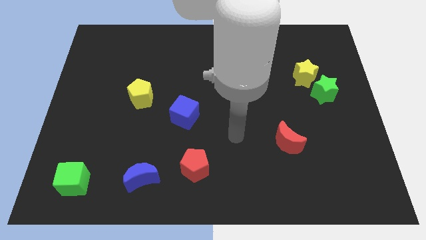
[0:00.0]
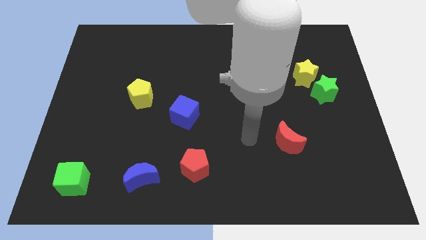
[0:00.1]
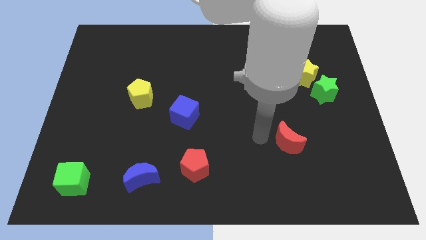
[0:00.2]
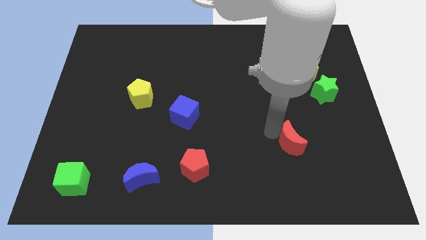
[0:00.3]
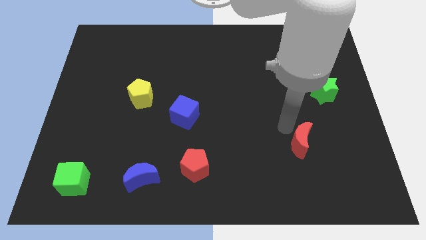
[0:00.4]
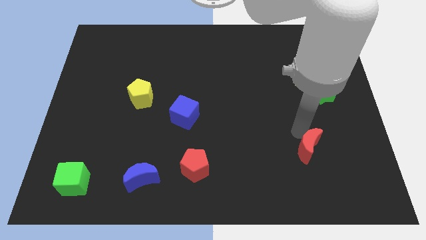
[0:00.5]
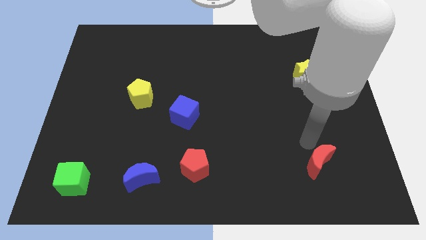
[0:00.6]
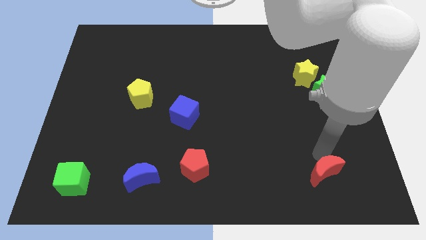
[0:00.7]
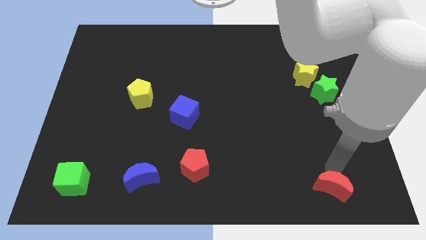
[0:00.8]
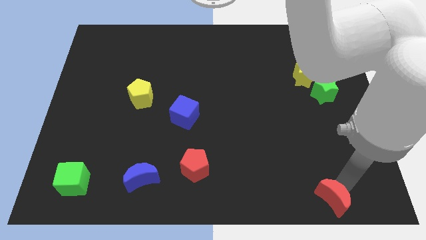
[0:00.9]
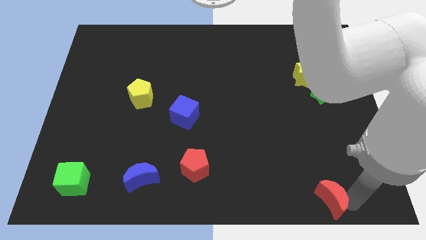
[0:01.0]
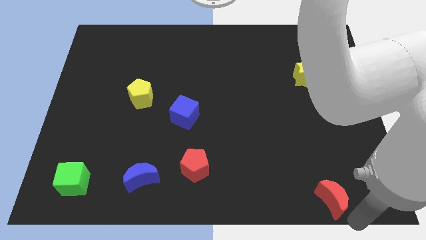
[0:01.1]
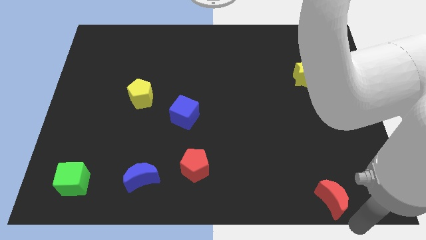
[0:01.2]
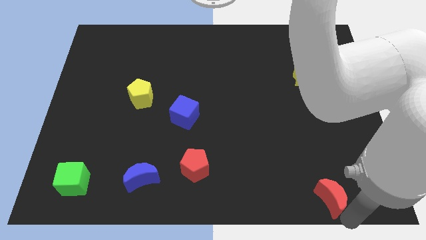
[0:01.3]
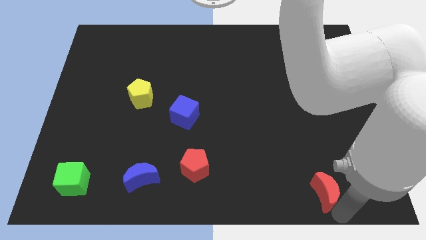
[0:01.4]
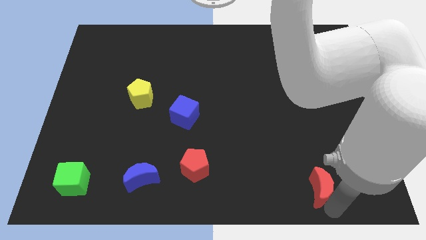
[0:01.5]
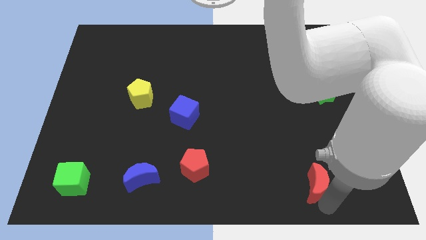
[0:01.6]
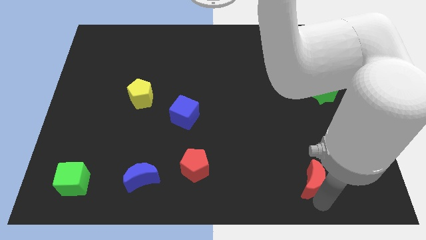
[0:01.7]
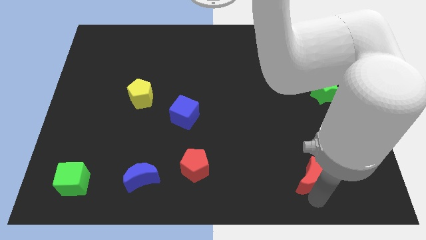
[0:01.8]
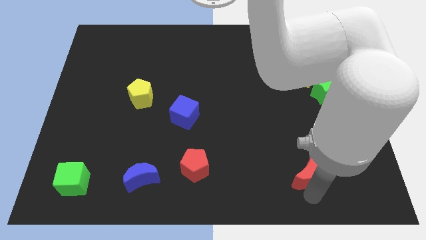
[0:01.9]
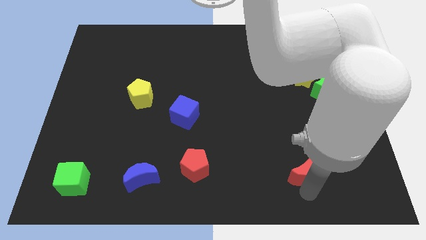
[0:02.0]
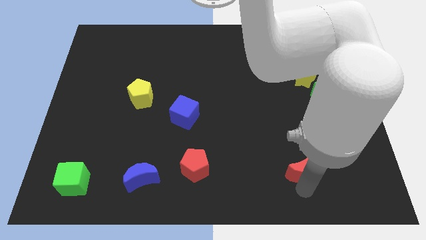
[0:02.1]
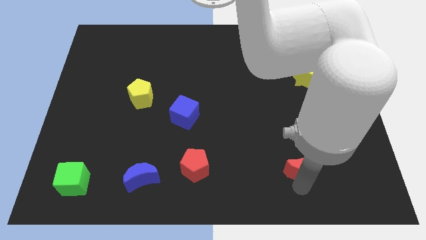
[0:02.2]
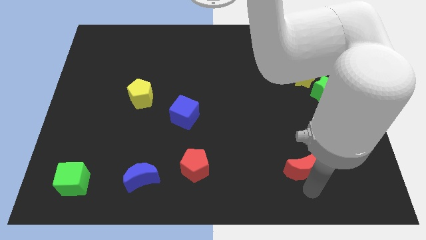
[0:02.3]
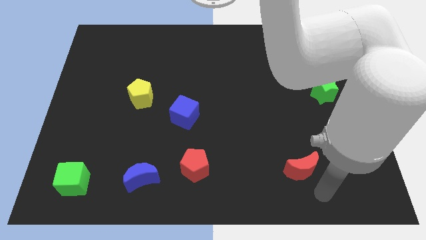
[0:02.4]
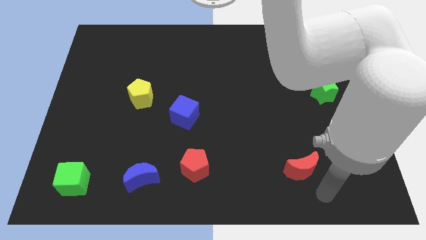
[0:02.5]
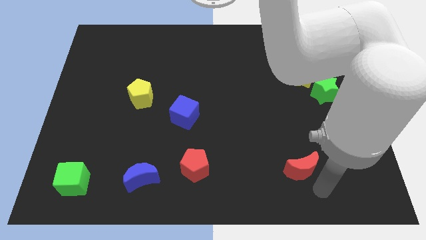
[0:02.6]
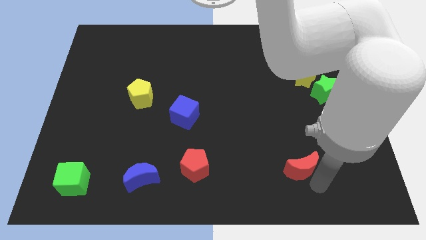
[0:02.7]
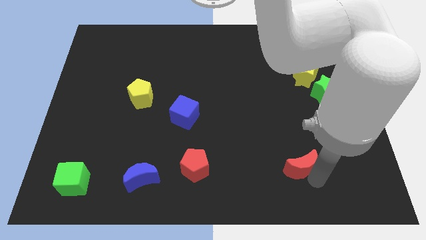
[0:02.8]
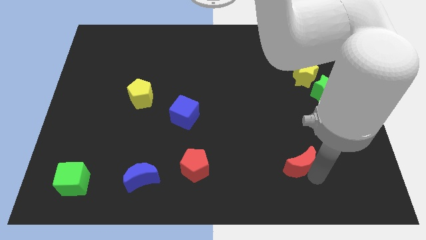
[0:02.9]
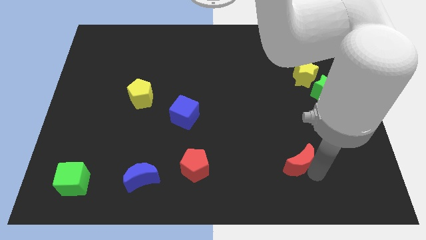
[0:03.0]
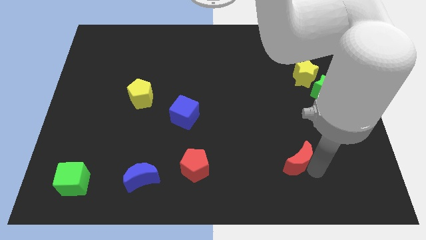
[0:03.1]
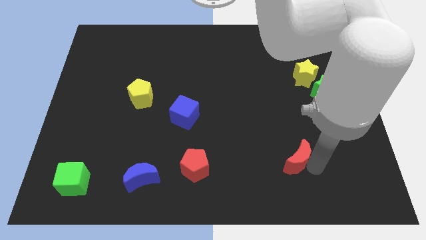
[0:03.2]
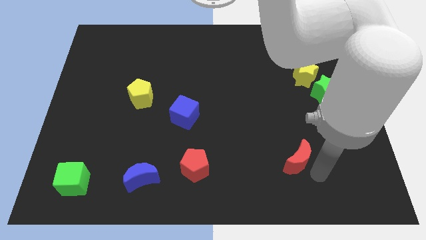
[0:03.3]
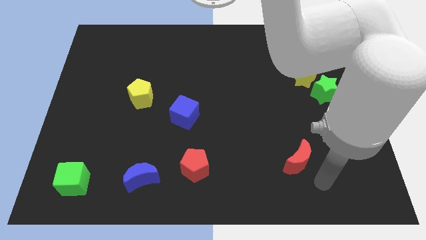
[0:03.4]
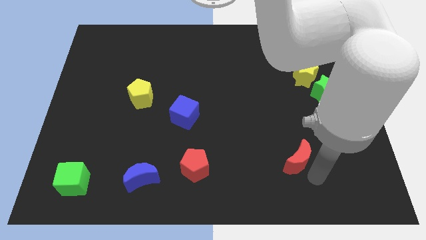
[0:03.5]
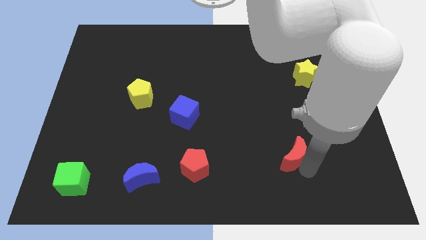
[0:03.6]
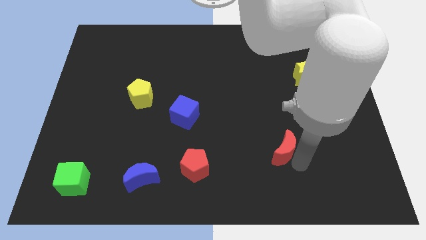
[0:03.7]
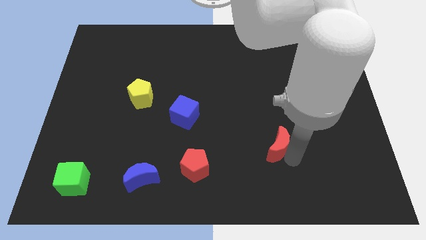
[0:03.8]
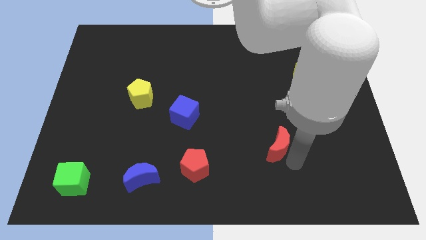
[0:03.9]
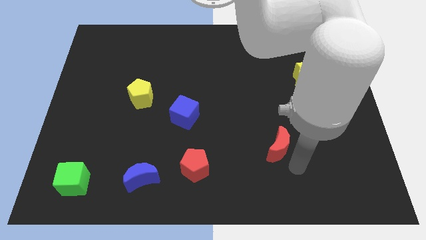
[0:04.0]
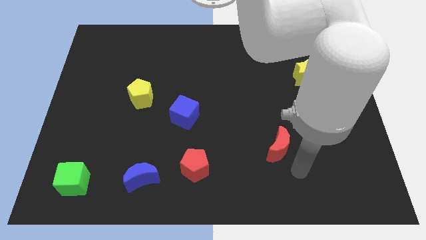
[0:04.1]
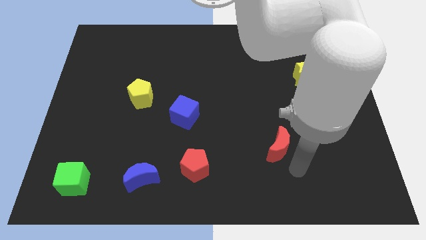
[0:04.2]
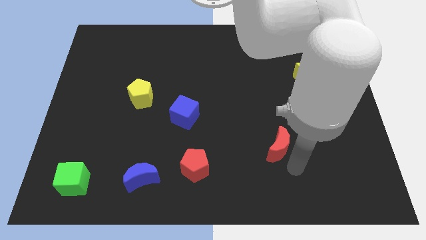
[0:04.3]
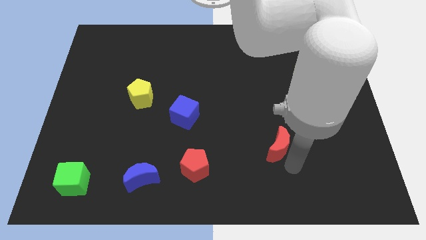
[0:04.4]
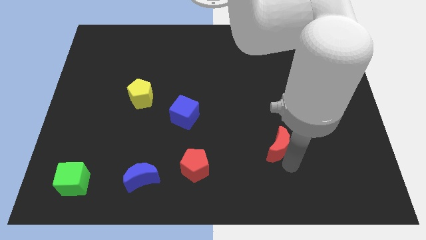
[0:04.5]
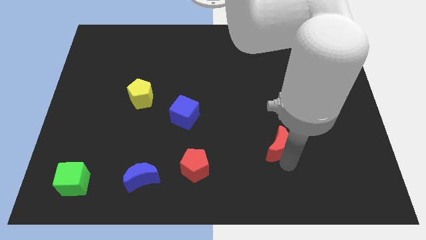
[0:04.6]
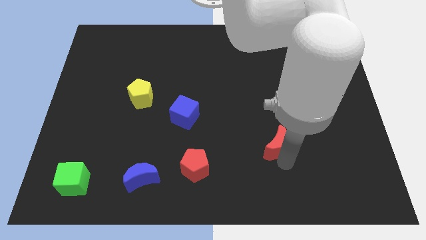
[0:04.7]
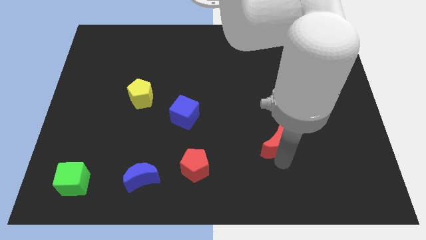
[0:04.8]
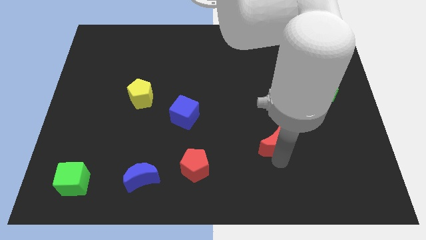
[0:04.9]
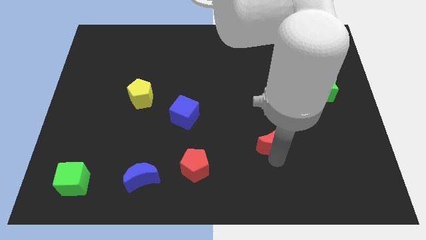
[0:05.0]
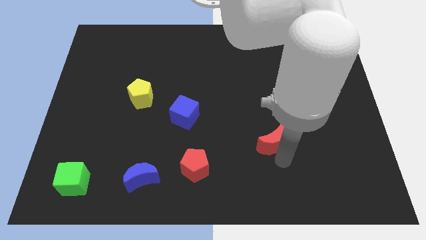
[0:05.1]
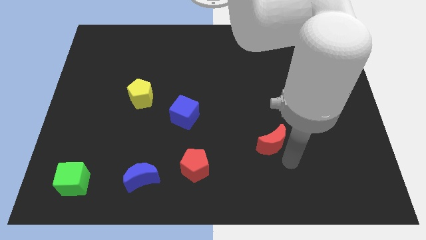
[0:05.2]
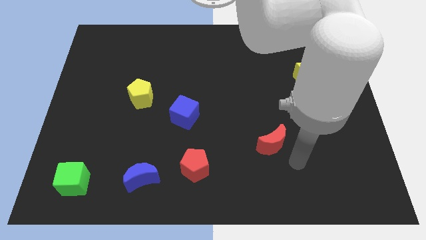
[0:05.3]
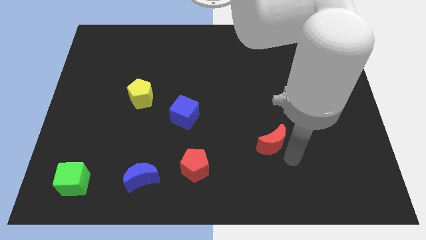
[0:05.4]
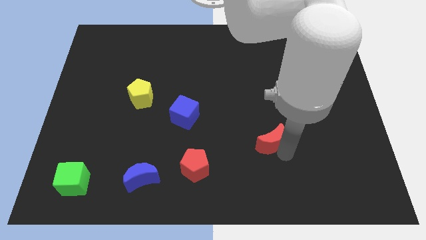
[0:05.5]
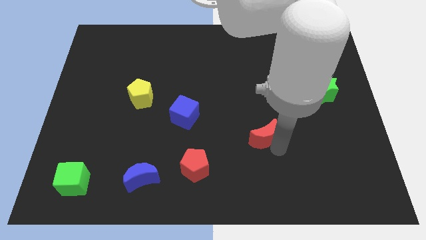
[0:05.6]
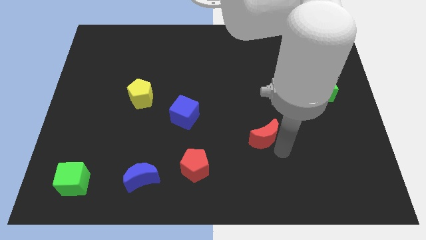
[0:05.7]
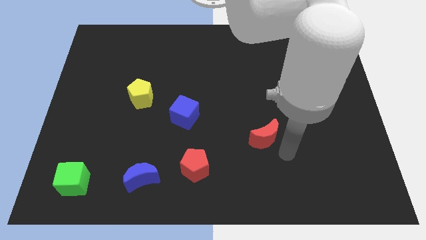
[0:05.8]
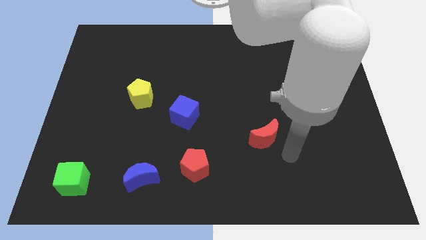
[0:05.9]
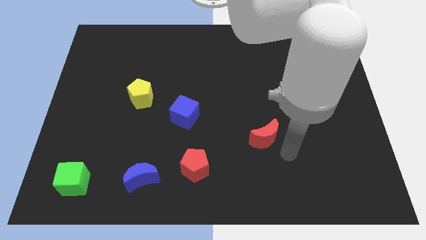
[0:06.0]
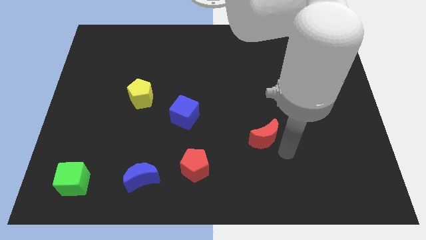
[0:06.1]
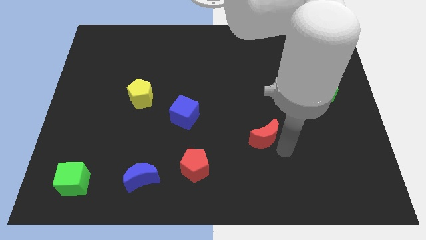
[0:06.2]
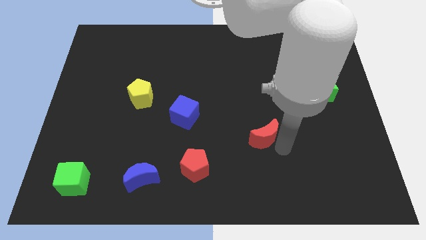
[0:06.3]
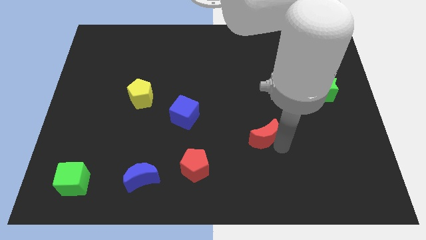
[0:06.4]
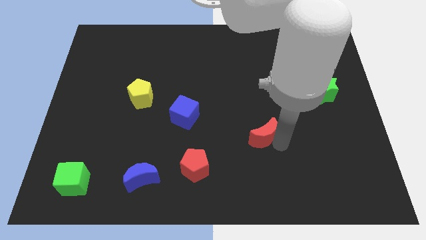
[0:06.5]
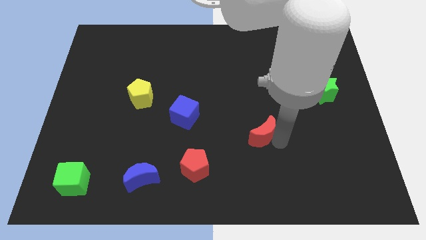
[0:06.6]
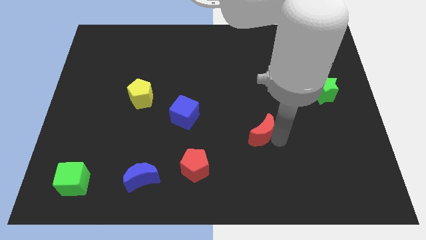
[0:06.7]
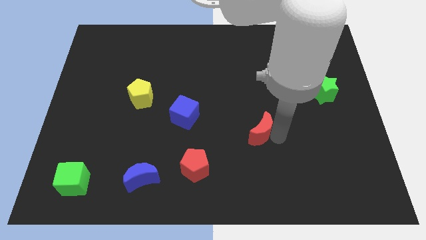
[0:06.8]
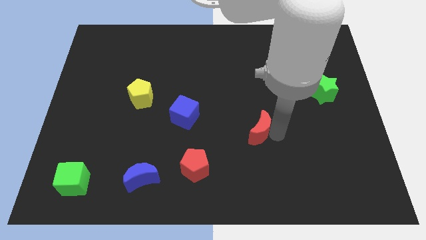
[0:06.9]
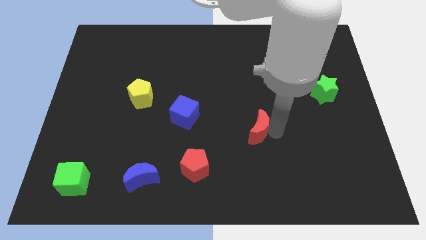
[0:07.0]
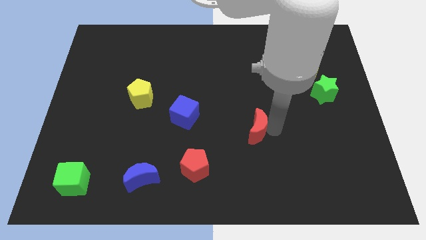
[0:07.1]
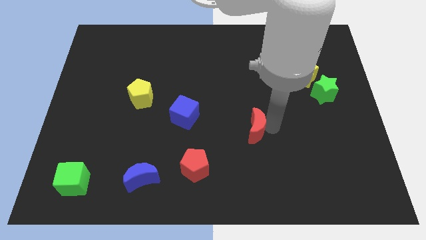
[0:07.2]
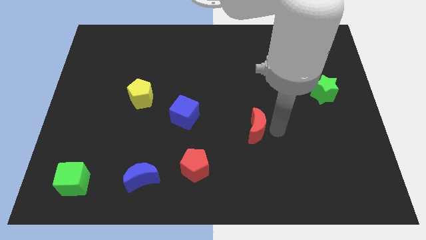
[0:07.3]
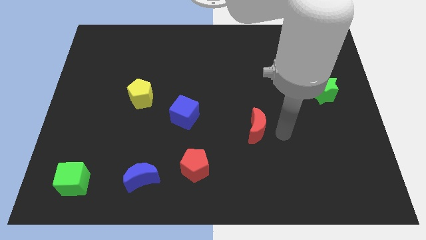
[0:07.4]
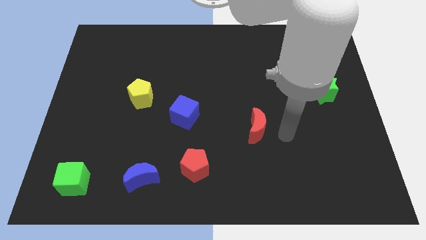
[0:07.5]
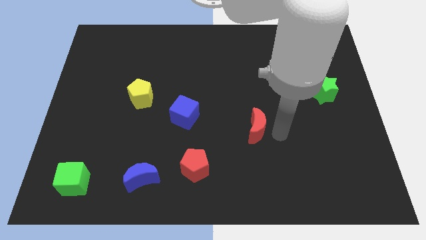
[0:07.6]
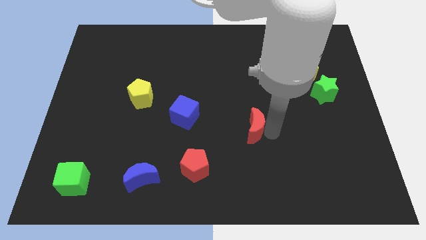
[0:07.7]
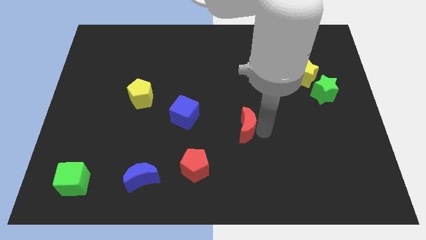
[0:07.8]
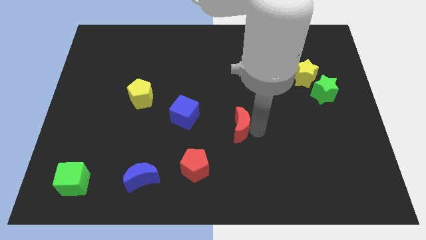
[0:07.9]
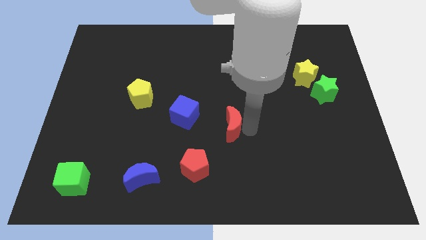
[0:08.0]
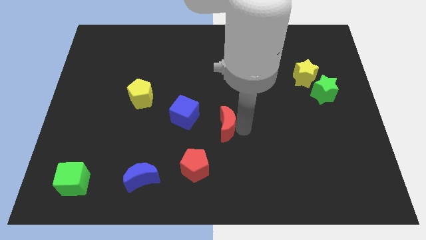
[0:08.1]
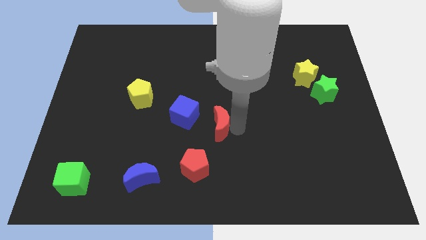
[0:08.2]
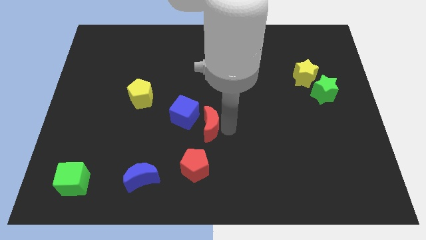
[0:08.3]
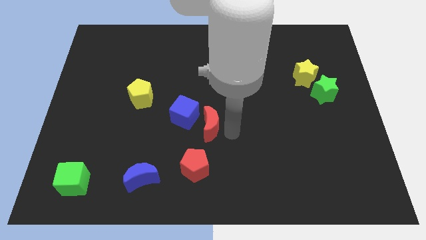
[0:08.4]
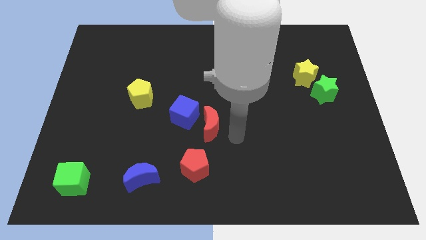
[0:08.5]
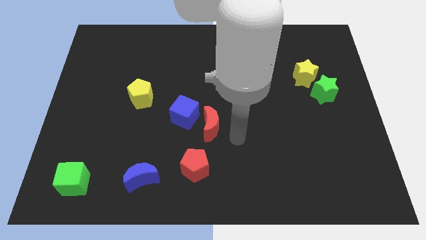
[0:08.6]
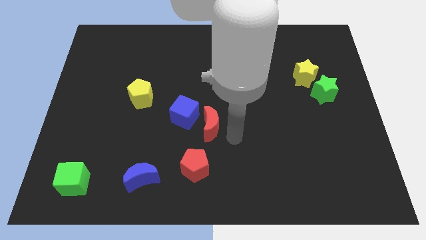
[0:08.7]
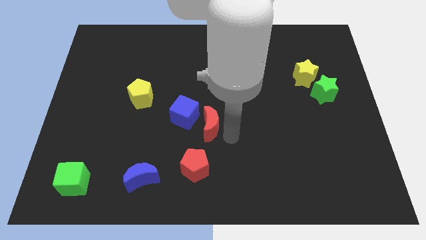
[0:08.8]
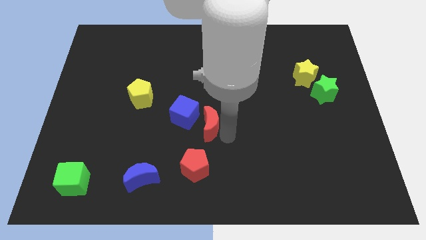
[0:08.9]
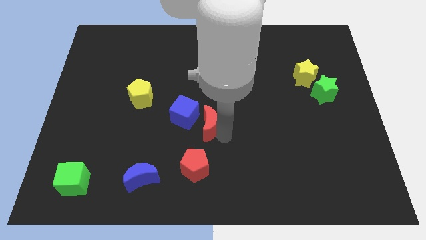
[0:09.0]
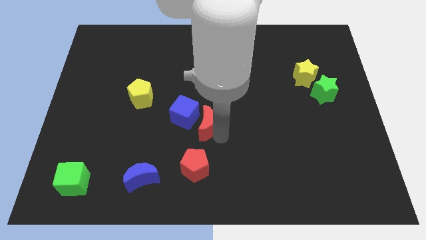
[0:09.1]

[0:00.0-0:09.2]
move the red moon towards the blue cube
